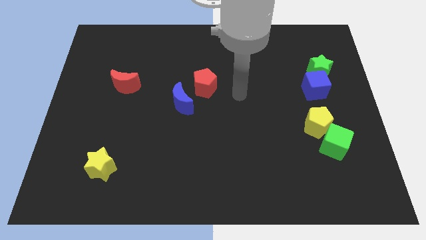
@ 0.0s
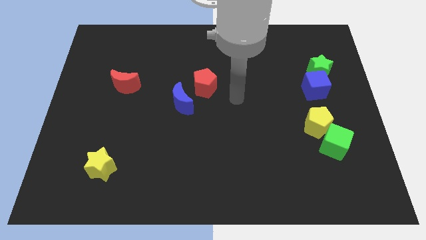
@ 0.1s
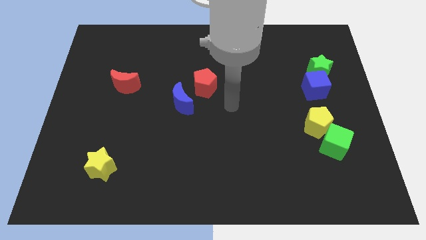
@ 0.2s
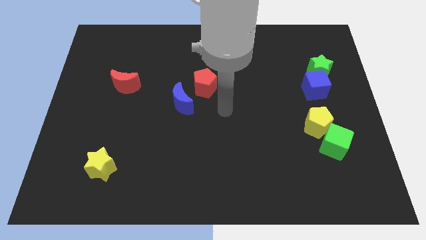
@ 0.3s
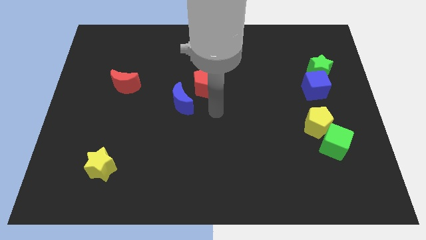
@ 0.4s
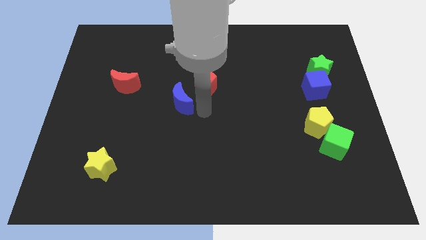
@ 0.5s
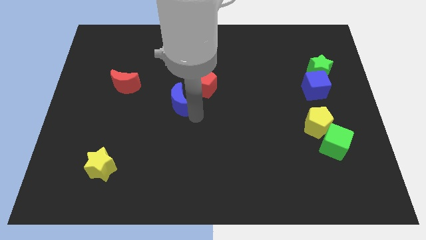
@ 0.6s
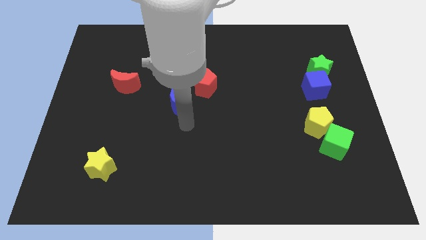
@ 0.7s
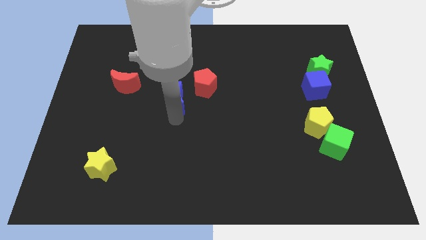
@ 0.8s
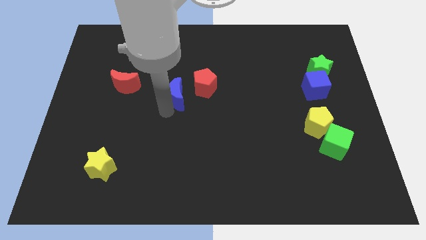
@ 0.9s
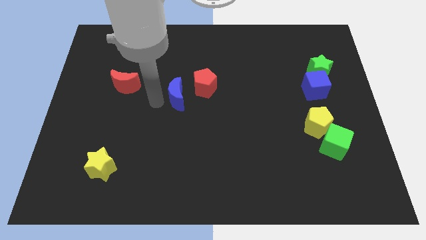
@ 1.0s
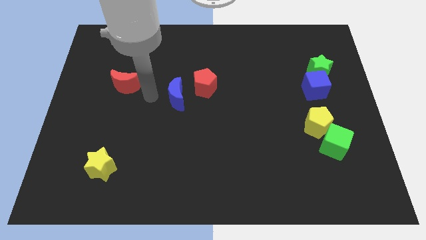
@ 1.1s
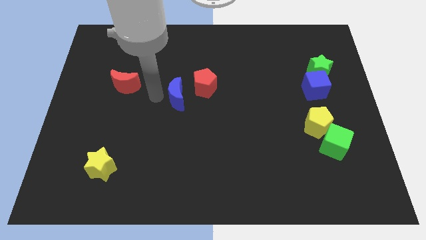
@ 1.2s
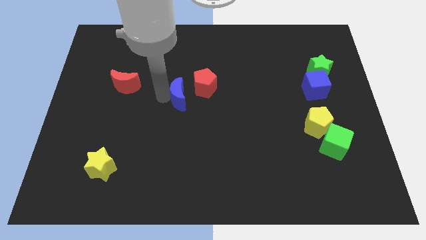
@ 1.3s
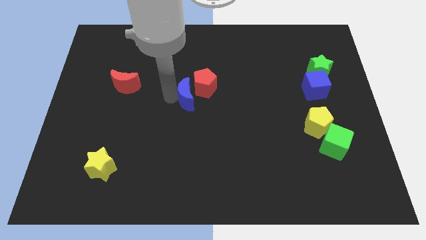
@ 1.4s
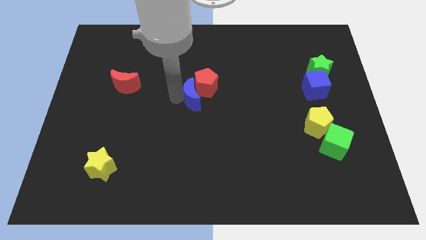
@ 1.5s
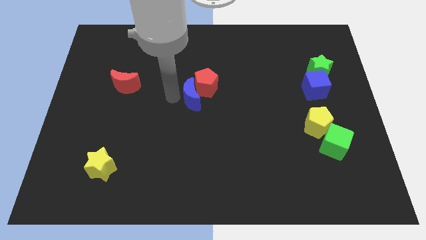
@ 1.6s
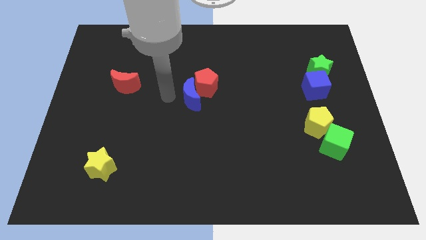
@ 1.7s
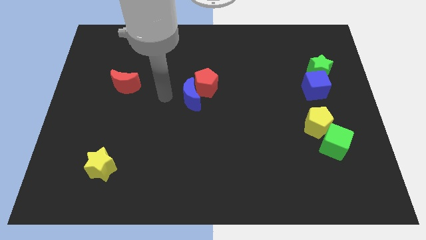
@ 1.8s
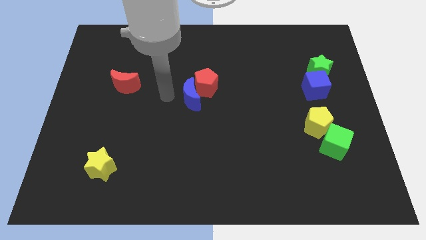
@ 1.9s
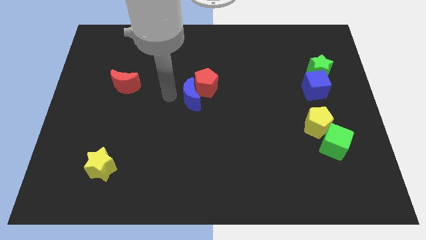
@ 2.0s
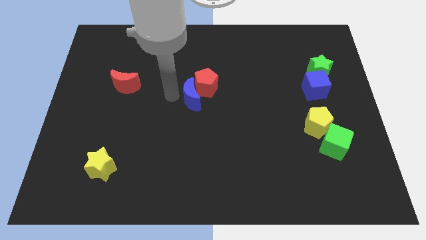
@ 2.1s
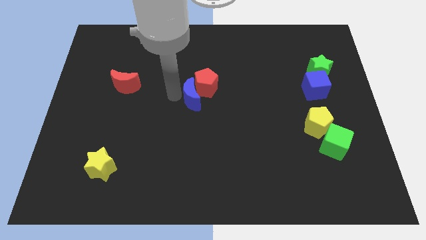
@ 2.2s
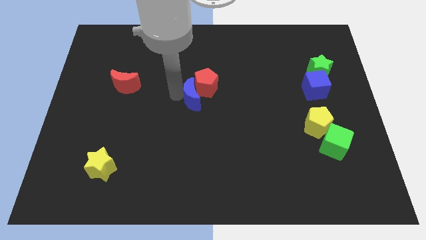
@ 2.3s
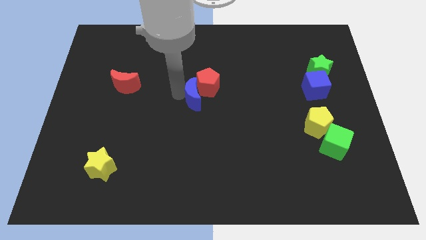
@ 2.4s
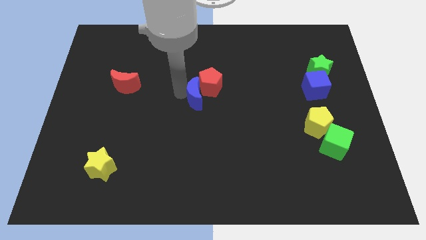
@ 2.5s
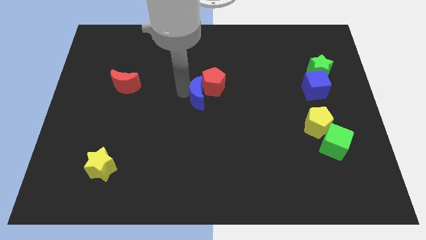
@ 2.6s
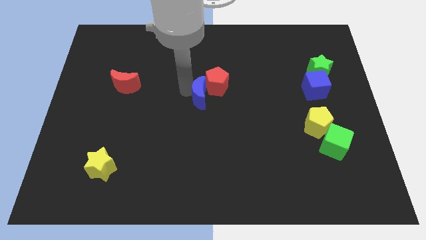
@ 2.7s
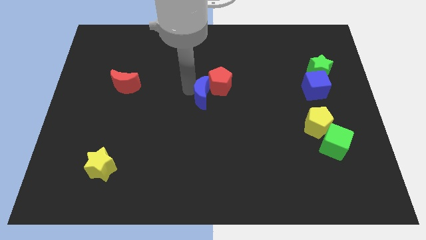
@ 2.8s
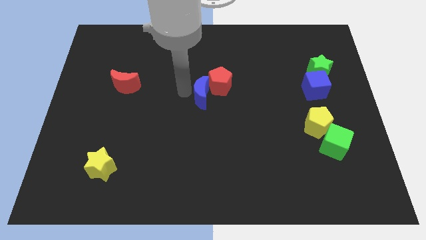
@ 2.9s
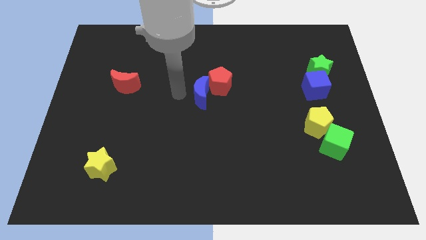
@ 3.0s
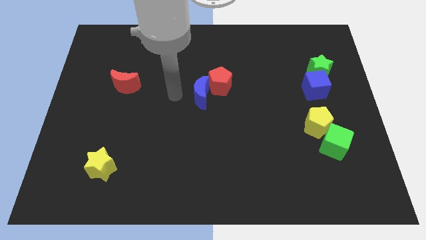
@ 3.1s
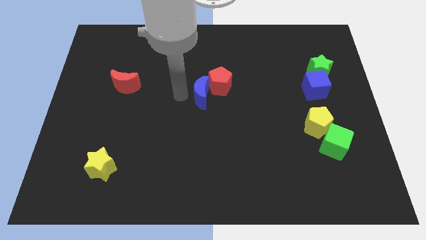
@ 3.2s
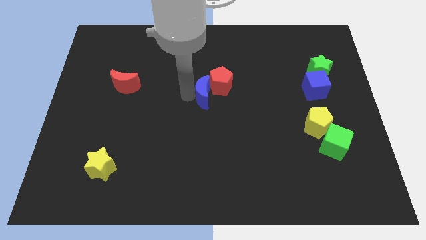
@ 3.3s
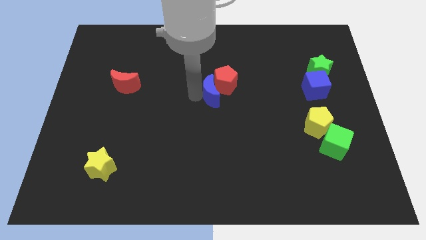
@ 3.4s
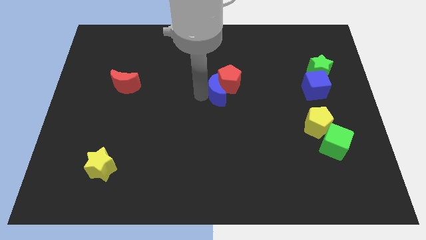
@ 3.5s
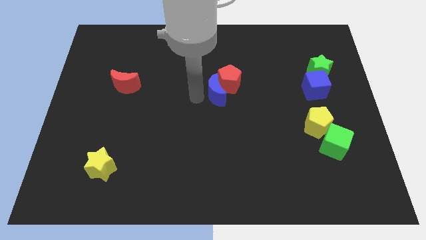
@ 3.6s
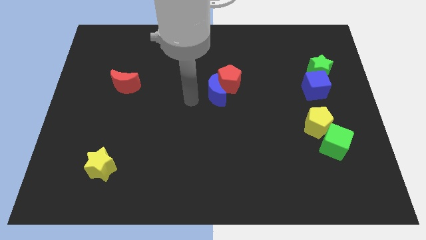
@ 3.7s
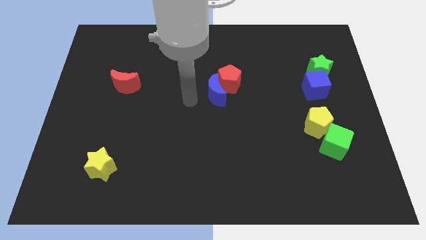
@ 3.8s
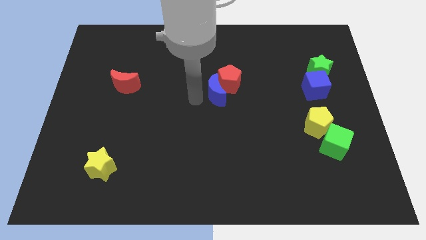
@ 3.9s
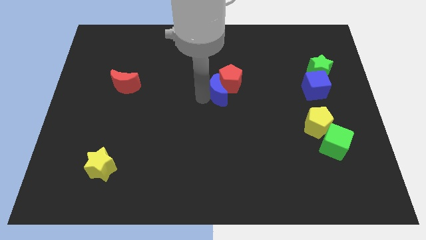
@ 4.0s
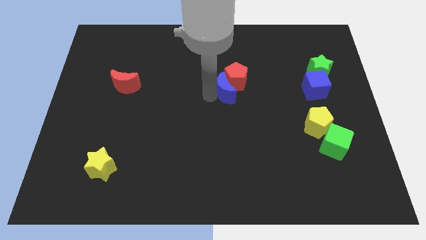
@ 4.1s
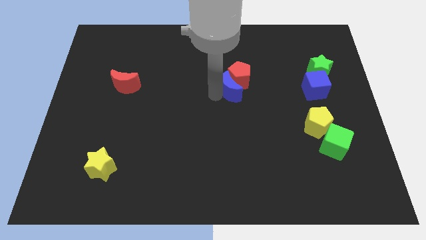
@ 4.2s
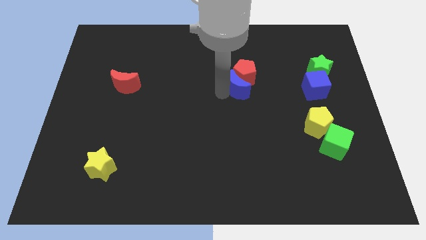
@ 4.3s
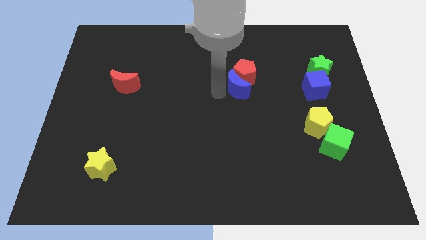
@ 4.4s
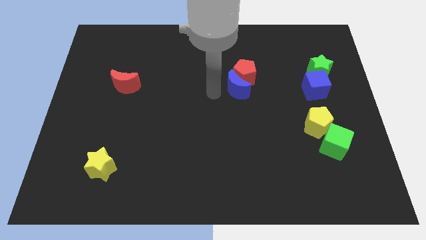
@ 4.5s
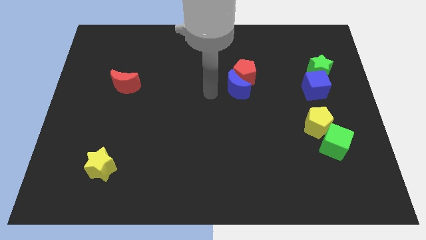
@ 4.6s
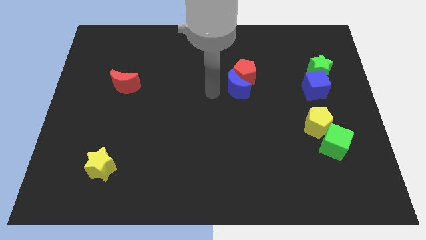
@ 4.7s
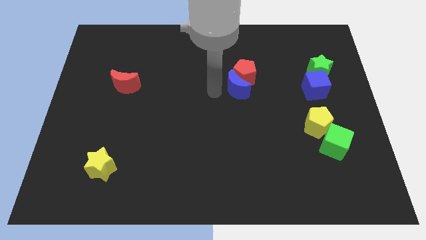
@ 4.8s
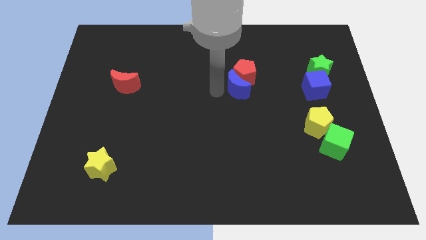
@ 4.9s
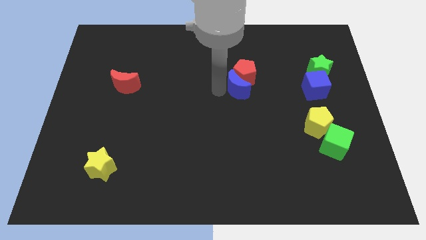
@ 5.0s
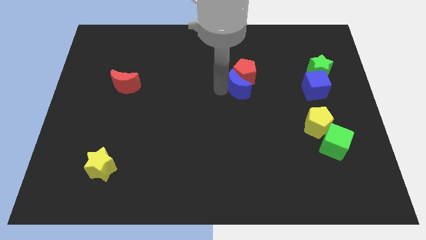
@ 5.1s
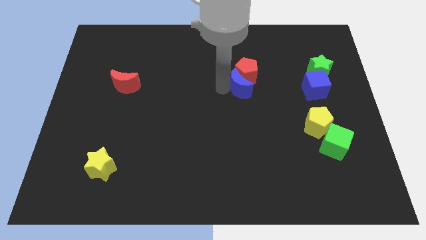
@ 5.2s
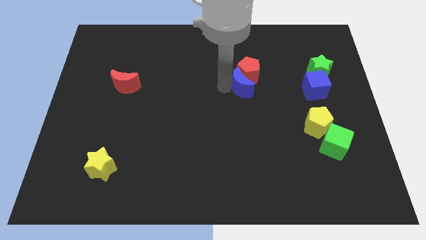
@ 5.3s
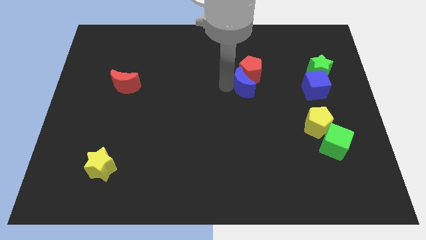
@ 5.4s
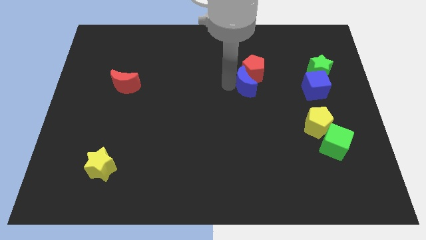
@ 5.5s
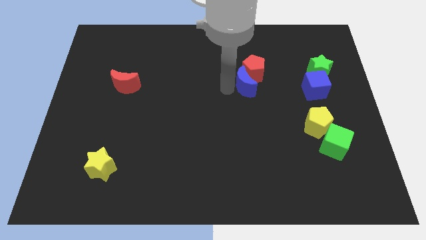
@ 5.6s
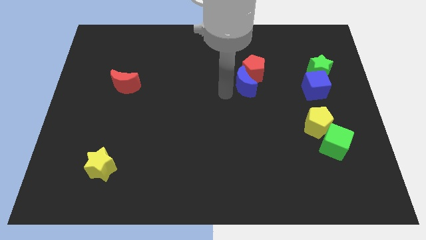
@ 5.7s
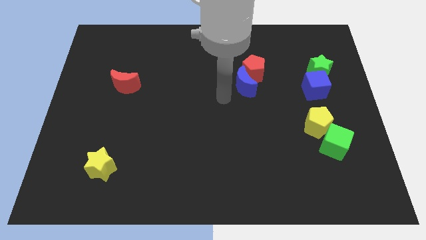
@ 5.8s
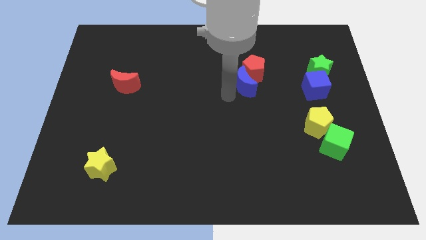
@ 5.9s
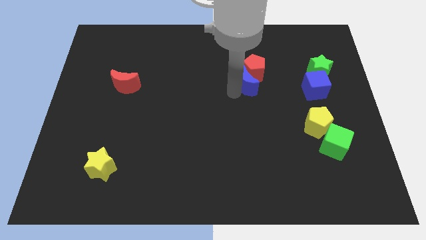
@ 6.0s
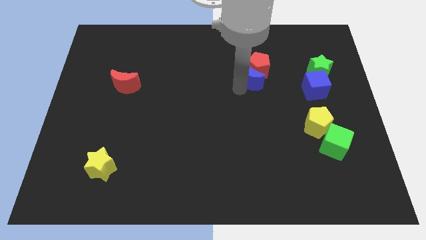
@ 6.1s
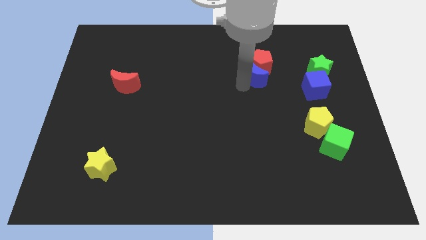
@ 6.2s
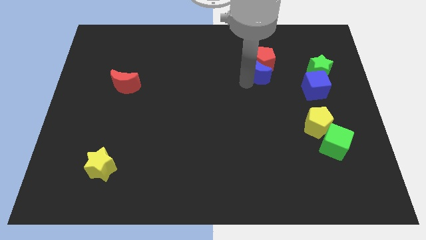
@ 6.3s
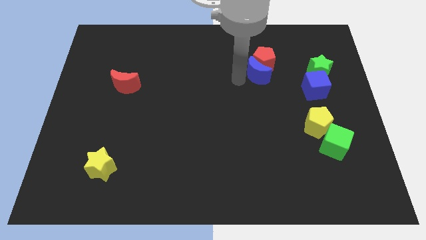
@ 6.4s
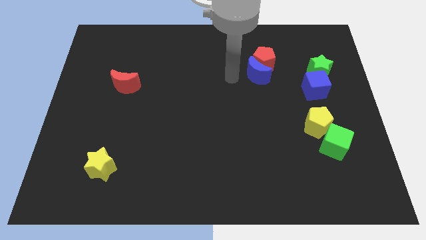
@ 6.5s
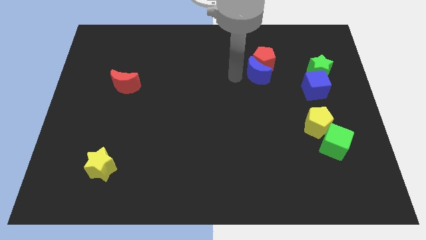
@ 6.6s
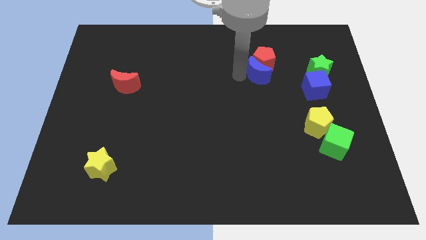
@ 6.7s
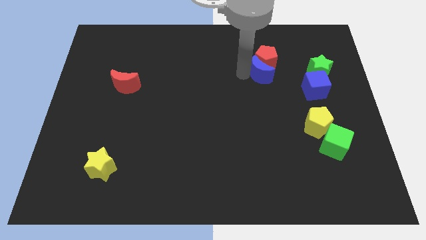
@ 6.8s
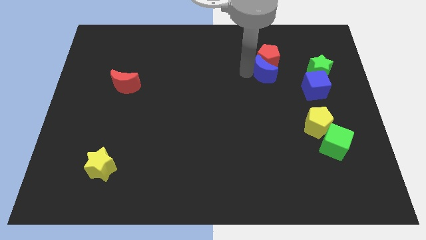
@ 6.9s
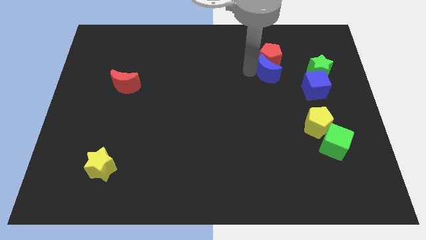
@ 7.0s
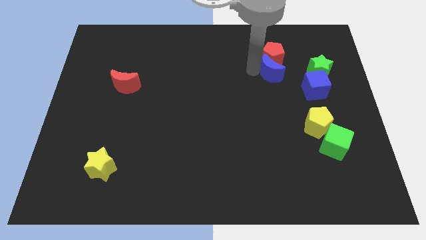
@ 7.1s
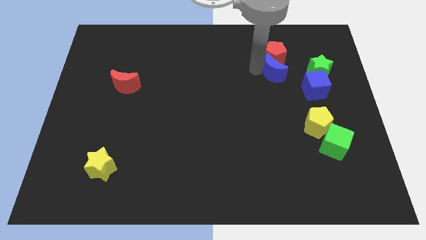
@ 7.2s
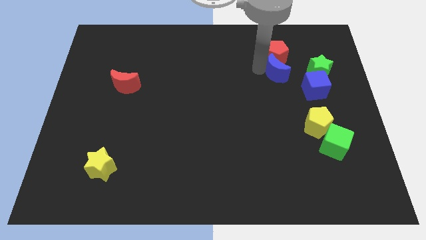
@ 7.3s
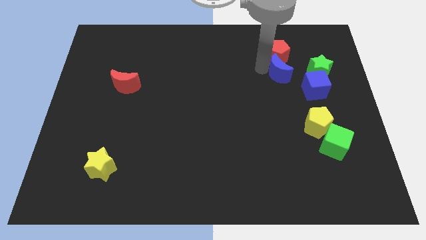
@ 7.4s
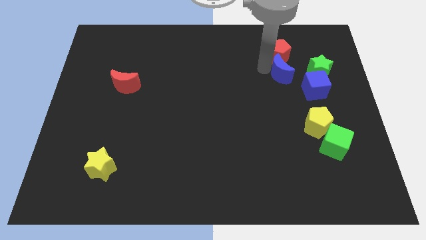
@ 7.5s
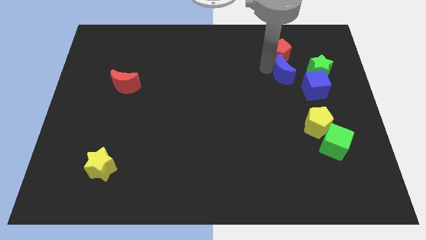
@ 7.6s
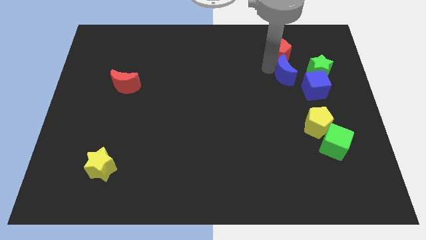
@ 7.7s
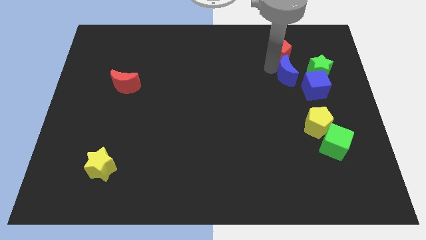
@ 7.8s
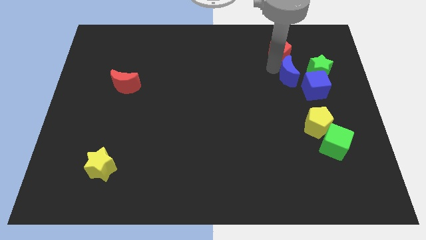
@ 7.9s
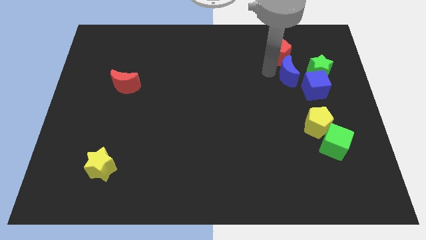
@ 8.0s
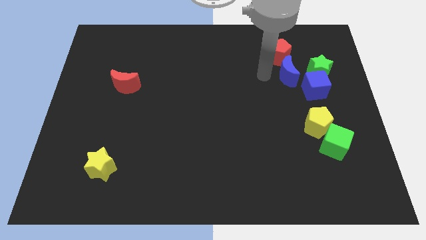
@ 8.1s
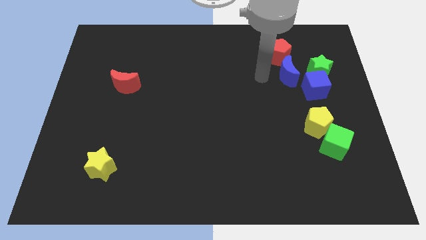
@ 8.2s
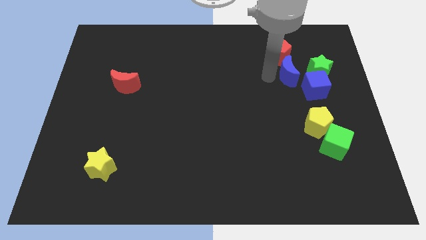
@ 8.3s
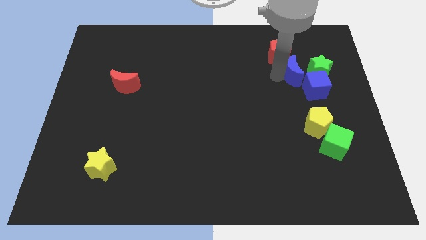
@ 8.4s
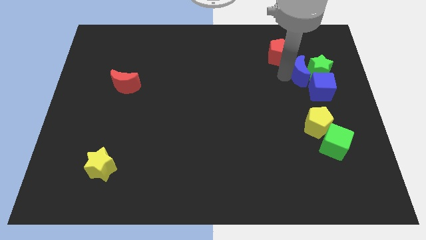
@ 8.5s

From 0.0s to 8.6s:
move the blue moon to the green star
